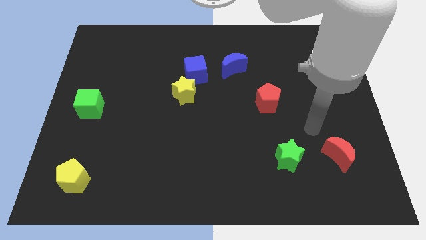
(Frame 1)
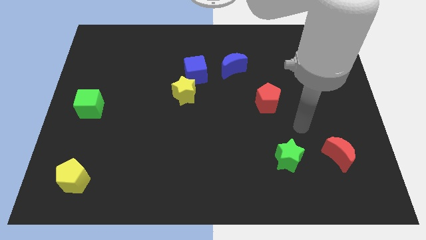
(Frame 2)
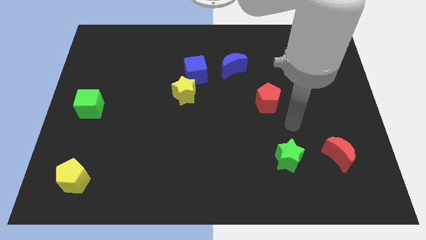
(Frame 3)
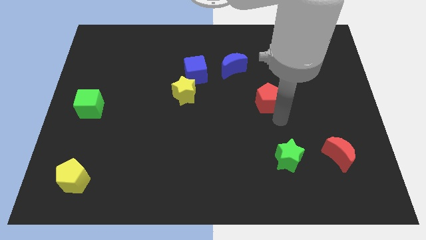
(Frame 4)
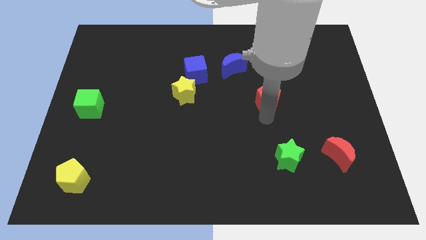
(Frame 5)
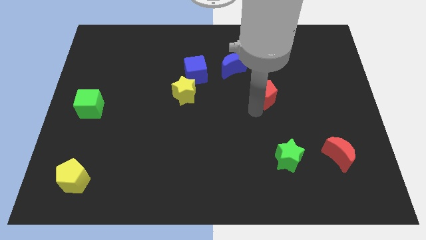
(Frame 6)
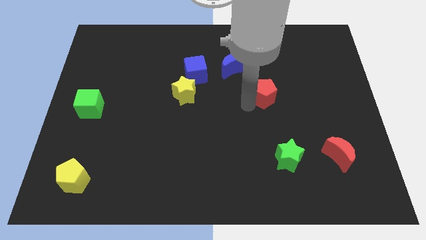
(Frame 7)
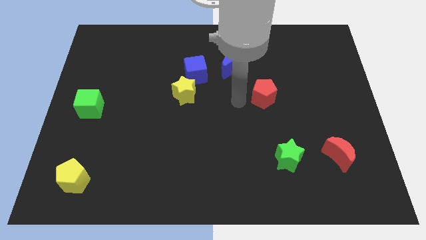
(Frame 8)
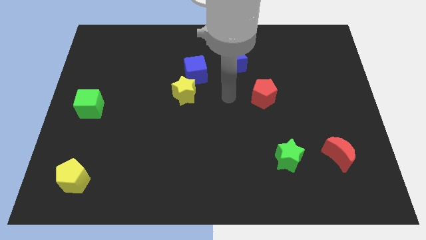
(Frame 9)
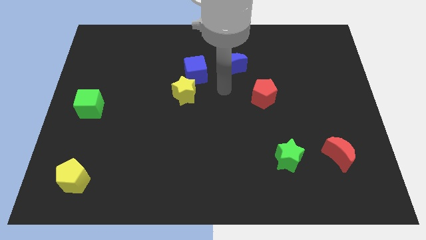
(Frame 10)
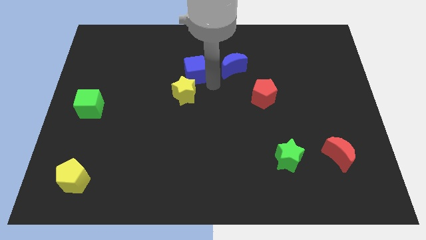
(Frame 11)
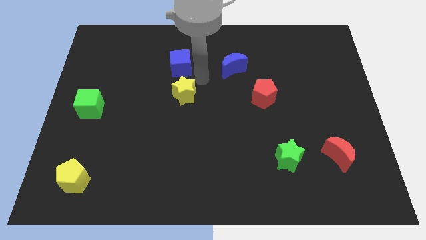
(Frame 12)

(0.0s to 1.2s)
pull the yellow star apart from the blue cube

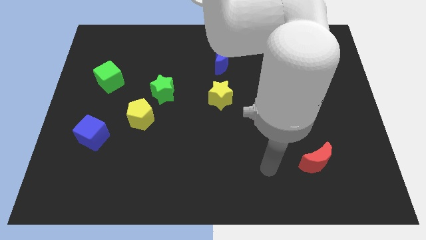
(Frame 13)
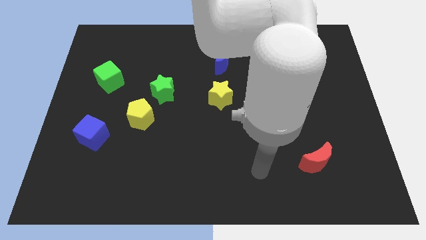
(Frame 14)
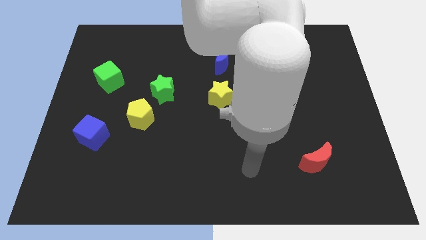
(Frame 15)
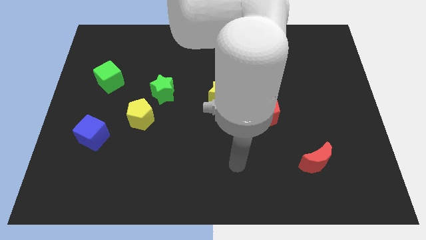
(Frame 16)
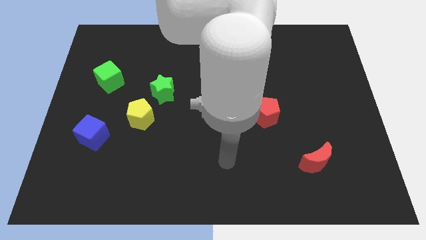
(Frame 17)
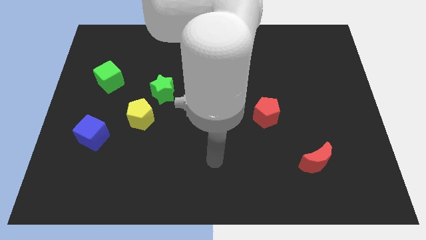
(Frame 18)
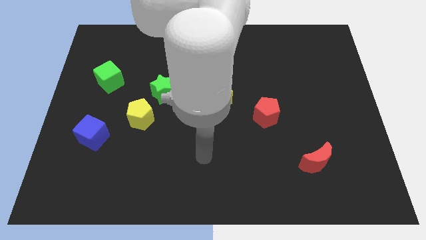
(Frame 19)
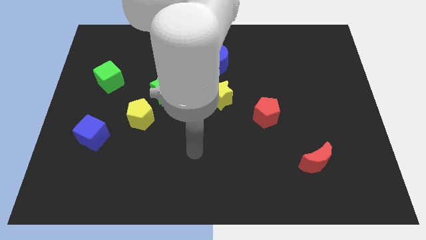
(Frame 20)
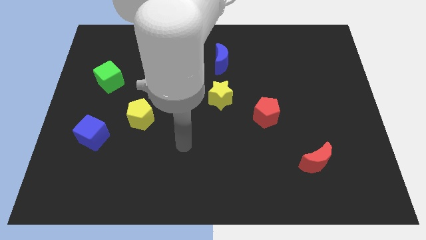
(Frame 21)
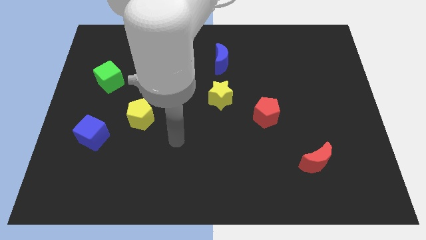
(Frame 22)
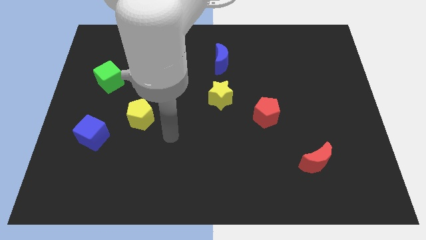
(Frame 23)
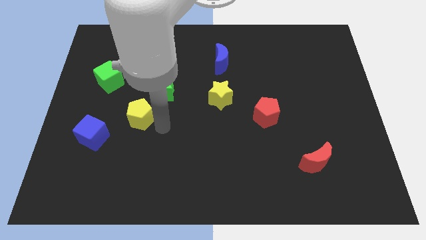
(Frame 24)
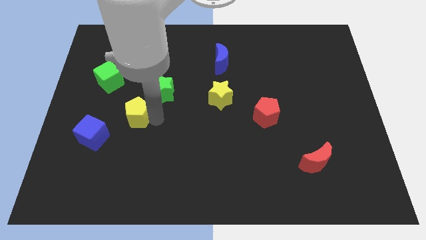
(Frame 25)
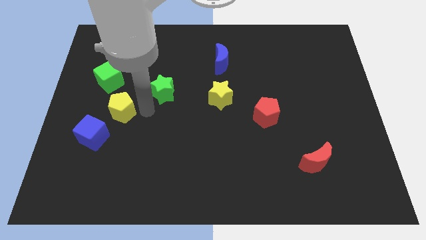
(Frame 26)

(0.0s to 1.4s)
move the green star away from the yellow pentagon

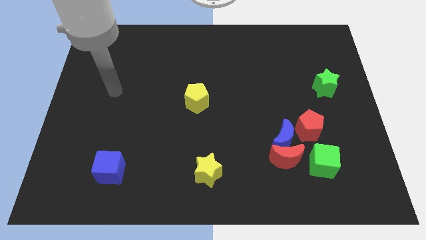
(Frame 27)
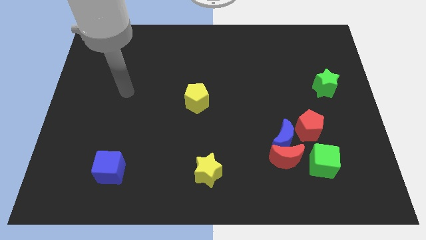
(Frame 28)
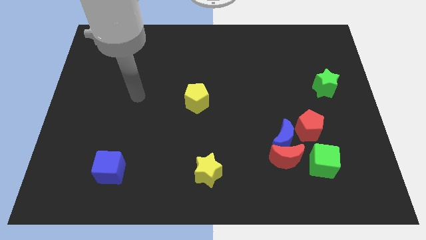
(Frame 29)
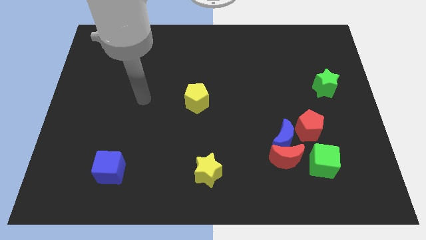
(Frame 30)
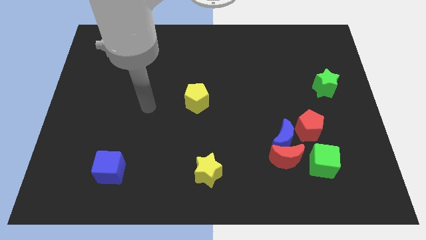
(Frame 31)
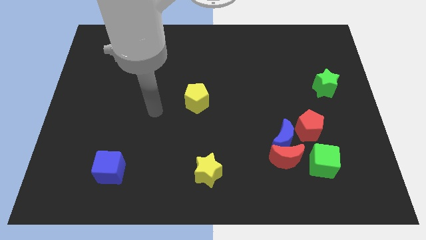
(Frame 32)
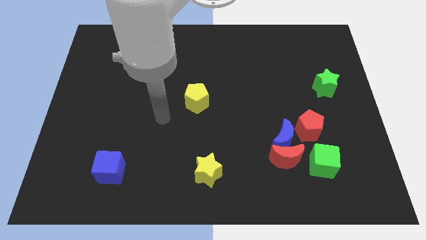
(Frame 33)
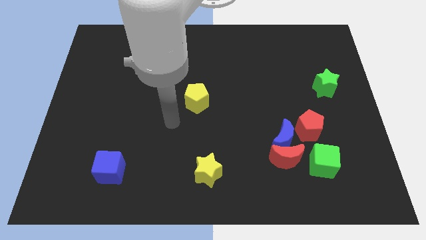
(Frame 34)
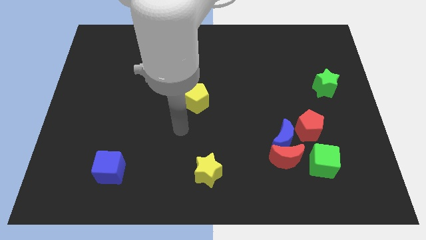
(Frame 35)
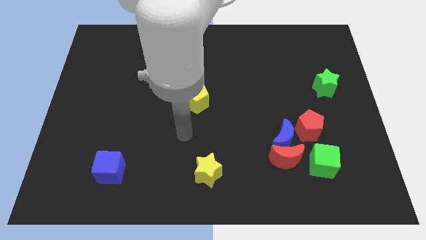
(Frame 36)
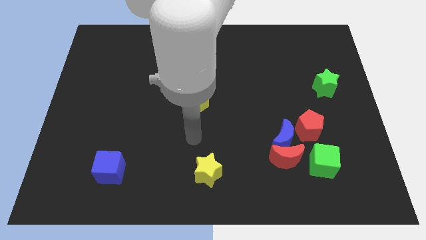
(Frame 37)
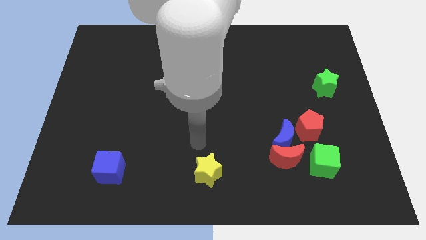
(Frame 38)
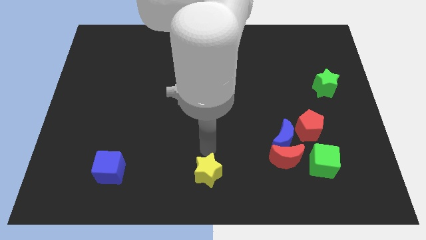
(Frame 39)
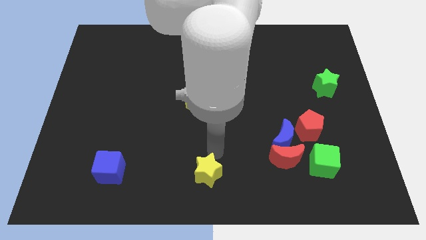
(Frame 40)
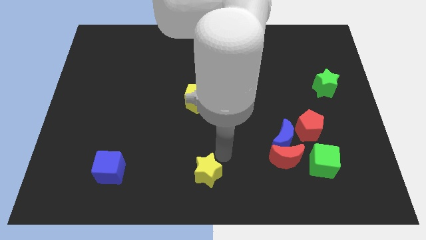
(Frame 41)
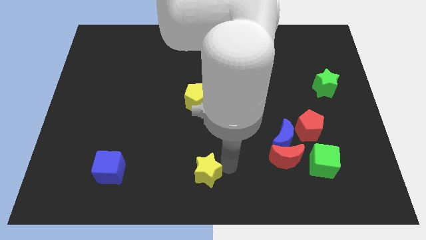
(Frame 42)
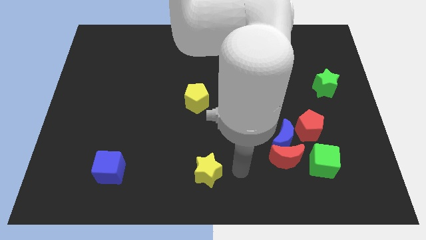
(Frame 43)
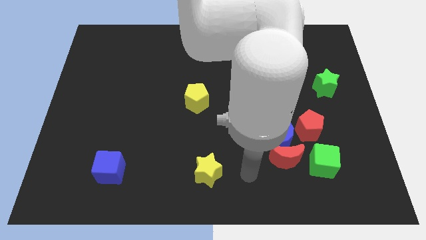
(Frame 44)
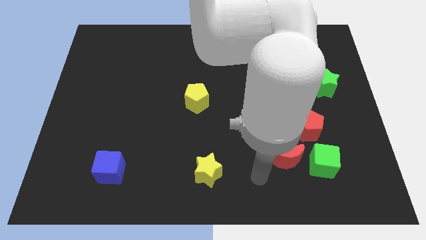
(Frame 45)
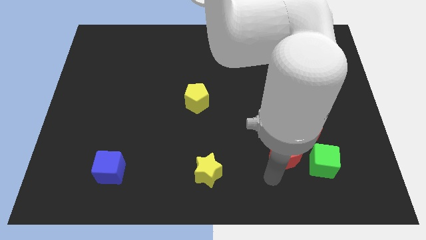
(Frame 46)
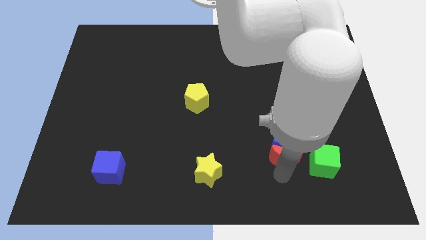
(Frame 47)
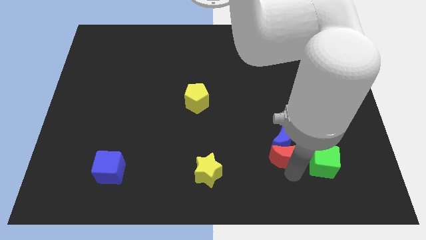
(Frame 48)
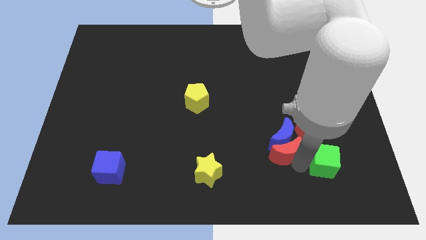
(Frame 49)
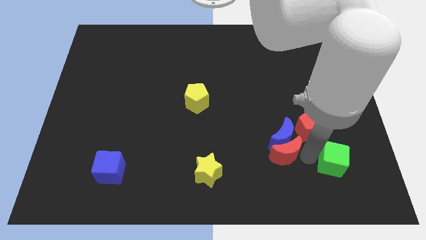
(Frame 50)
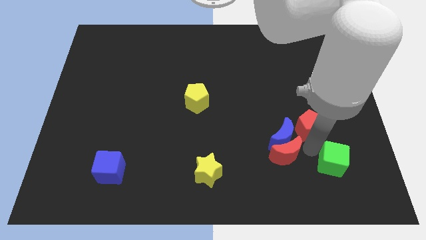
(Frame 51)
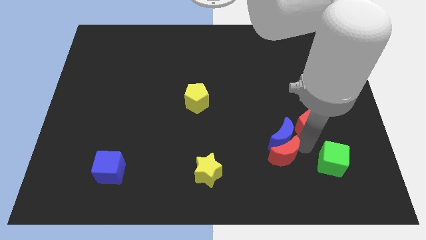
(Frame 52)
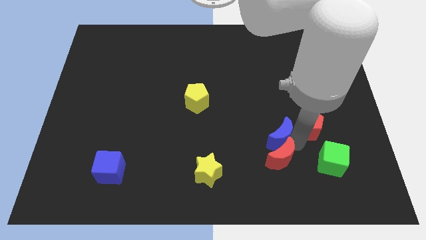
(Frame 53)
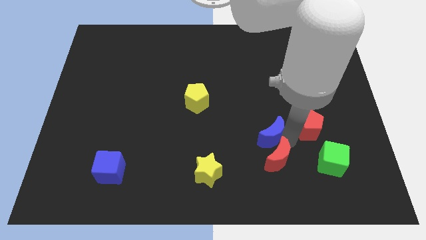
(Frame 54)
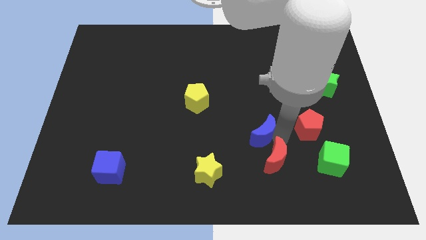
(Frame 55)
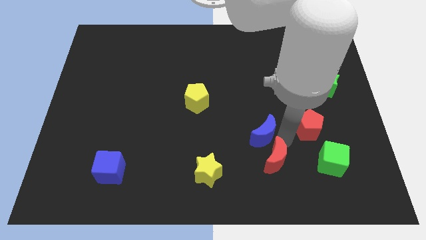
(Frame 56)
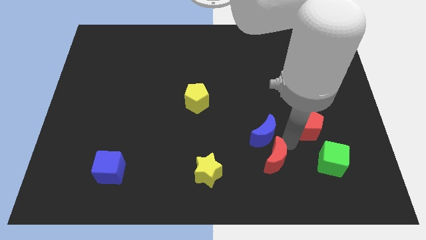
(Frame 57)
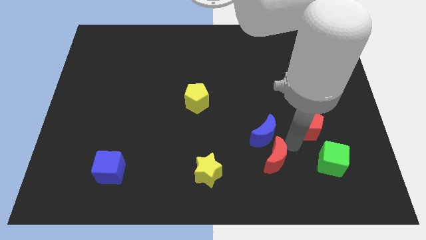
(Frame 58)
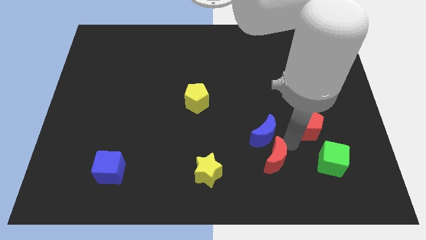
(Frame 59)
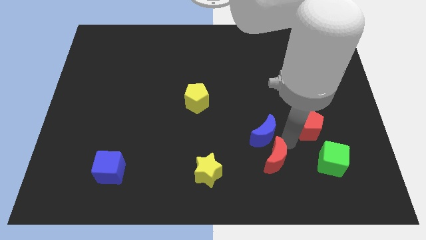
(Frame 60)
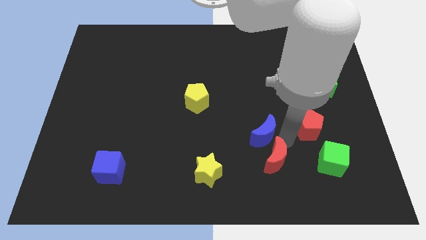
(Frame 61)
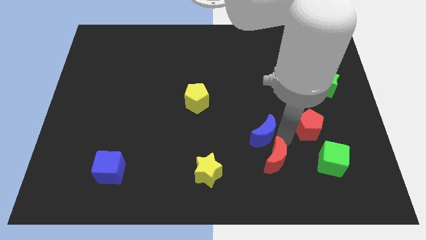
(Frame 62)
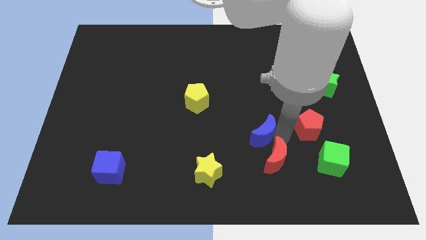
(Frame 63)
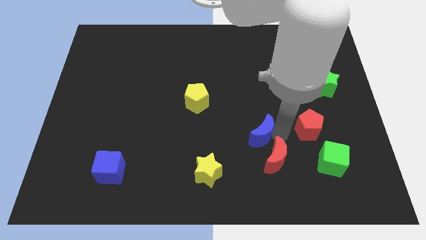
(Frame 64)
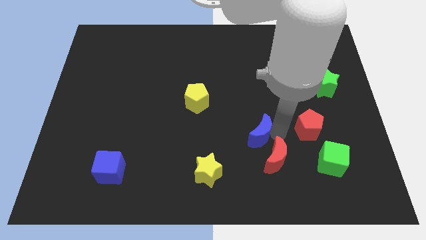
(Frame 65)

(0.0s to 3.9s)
move the blue moon away from the red moon, red pentagon, and green cube

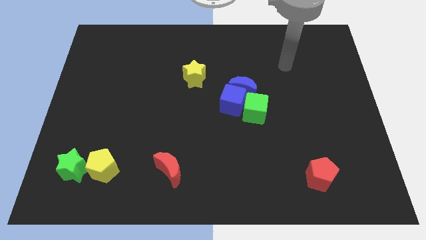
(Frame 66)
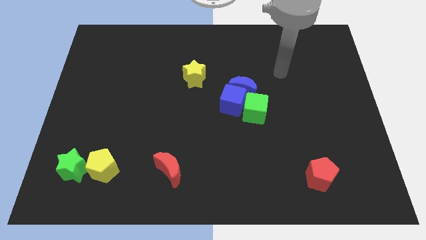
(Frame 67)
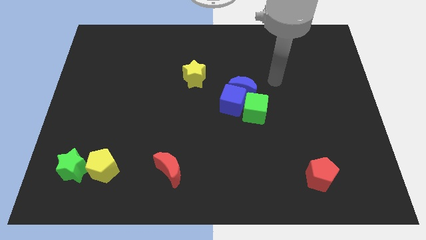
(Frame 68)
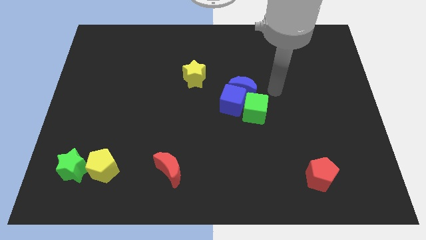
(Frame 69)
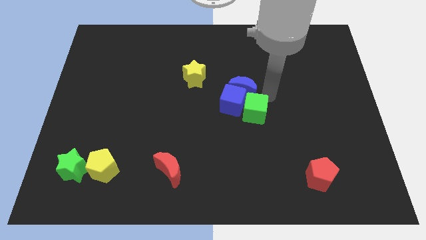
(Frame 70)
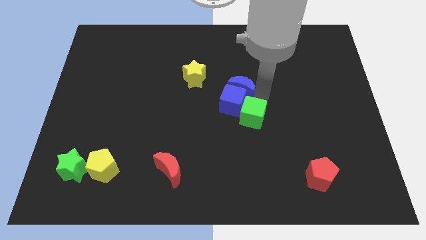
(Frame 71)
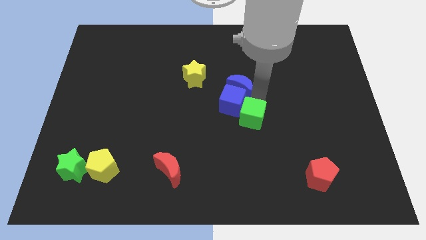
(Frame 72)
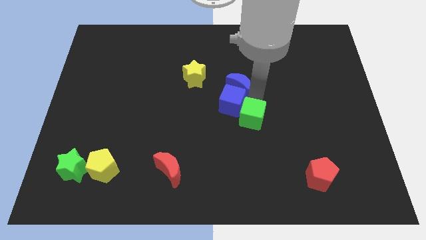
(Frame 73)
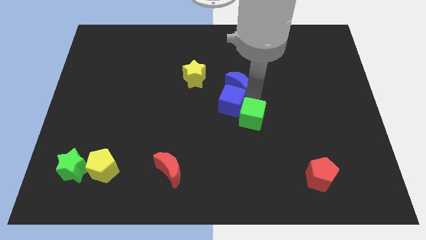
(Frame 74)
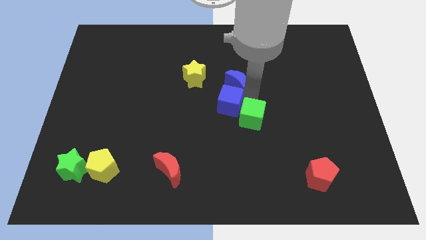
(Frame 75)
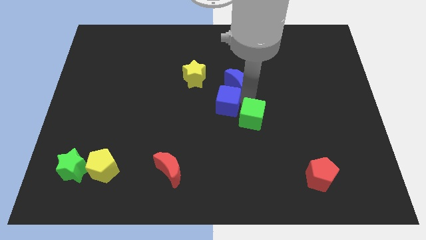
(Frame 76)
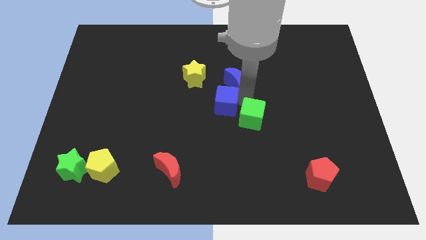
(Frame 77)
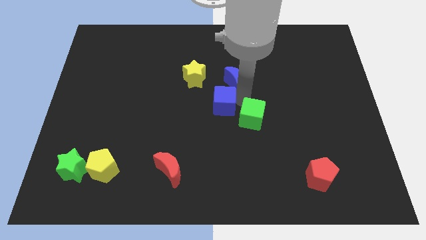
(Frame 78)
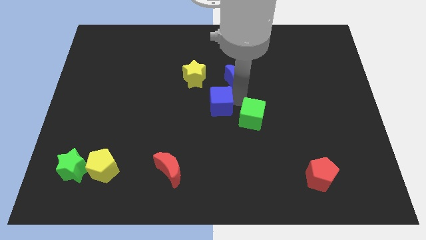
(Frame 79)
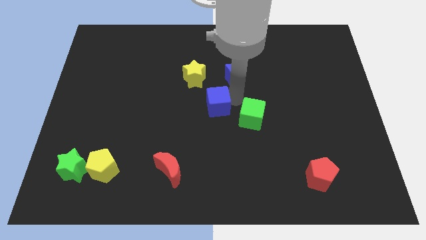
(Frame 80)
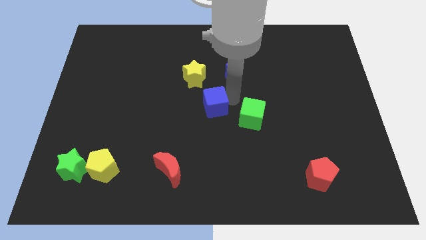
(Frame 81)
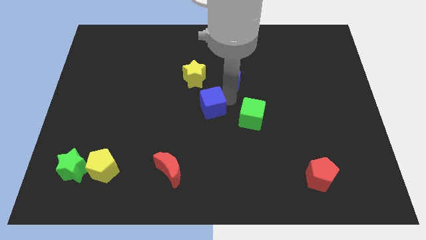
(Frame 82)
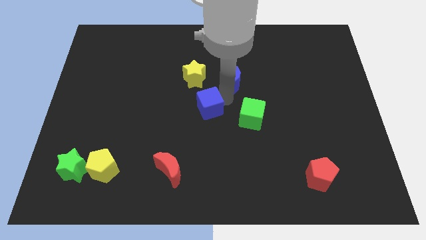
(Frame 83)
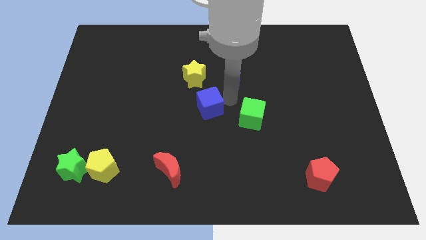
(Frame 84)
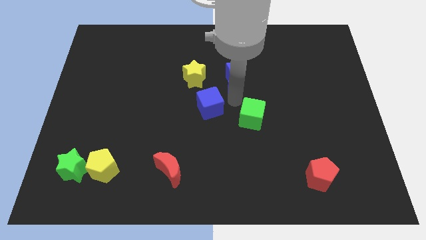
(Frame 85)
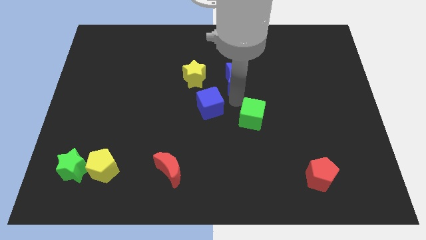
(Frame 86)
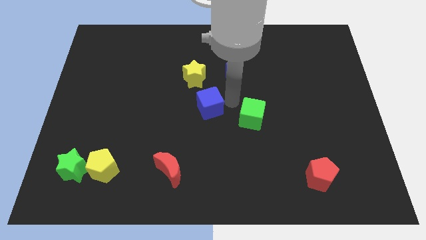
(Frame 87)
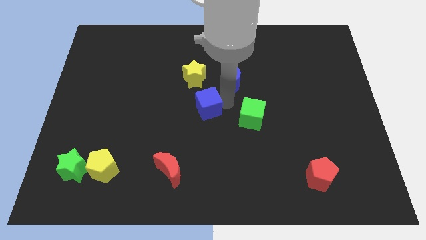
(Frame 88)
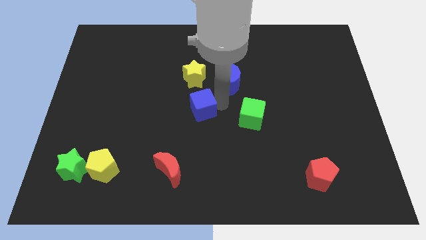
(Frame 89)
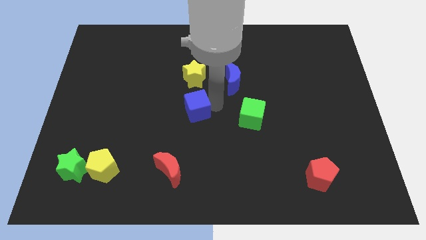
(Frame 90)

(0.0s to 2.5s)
separate the blue cube from the blue moon and green cube

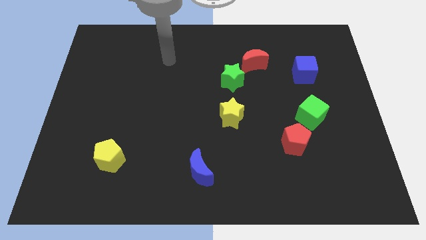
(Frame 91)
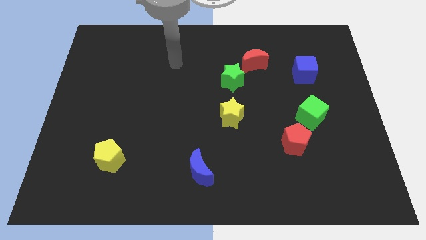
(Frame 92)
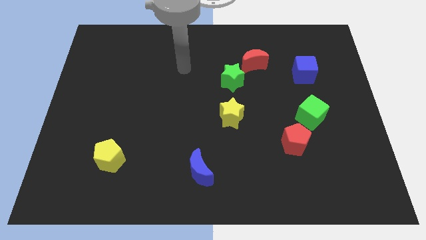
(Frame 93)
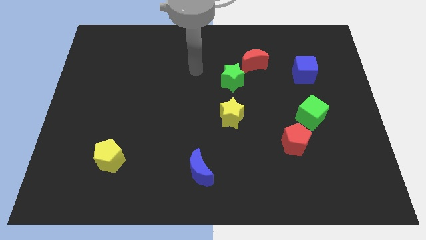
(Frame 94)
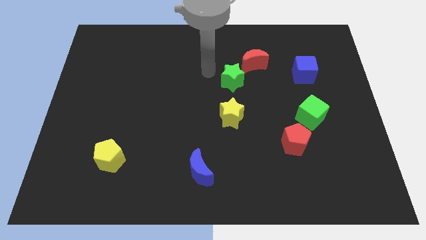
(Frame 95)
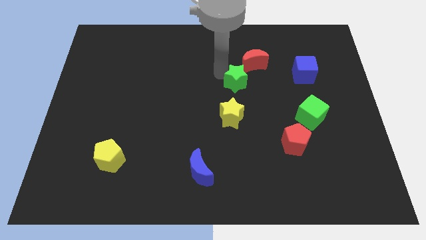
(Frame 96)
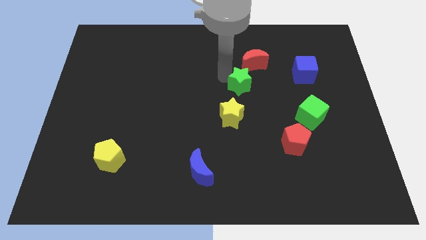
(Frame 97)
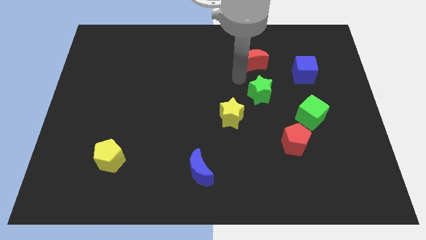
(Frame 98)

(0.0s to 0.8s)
move the red moon away from the green star
